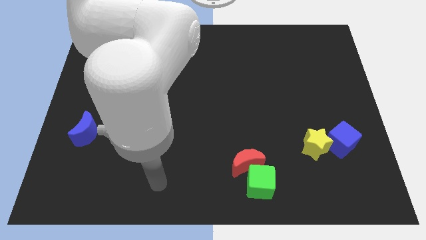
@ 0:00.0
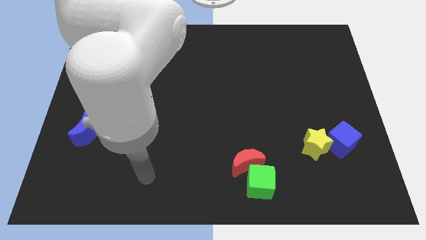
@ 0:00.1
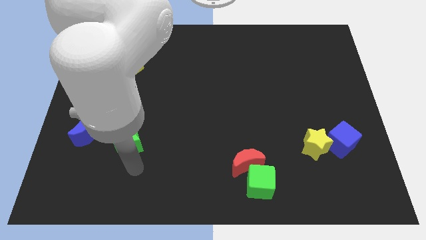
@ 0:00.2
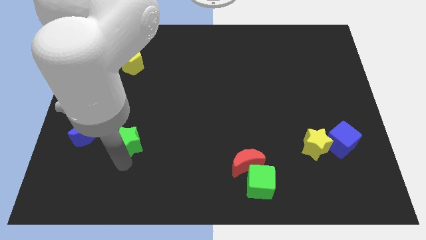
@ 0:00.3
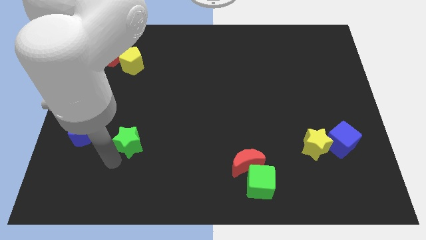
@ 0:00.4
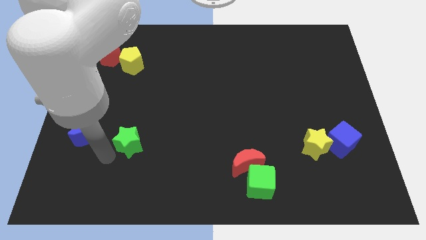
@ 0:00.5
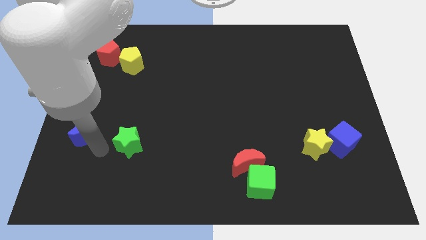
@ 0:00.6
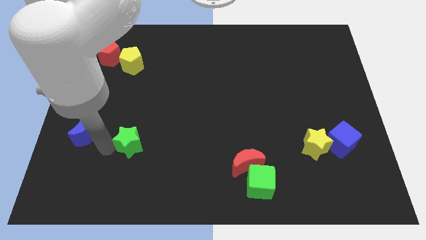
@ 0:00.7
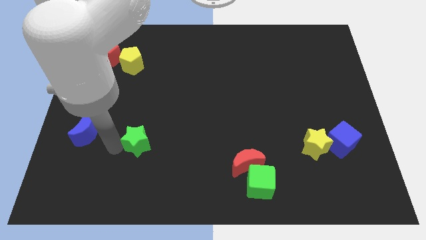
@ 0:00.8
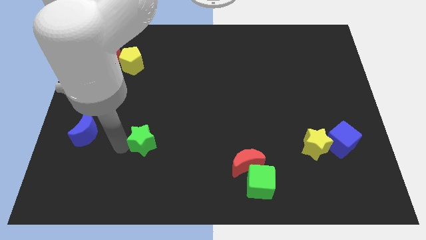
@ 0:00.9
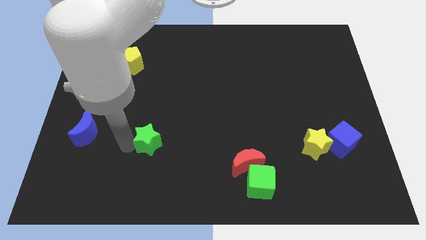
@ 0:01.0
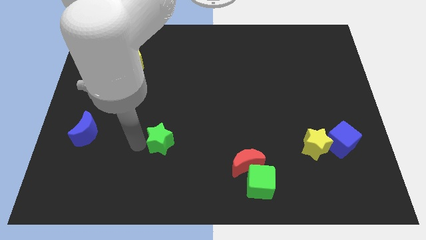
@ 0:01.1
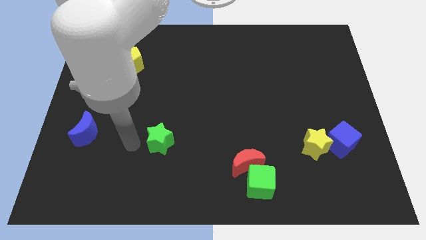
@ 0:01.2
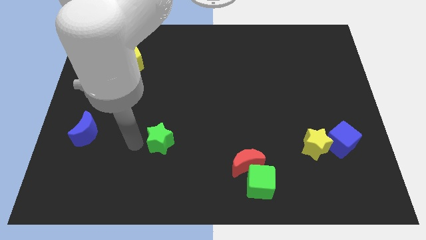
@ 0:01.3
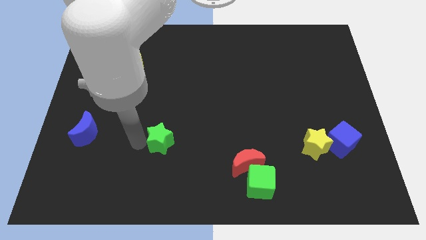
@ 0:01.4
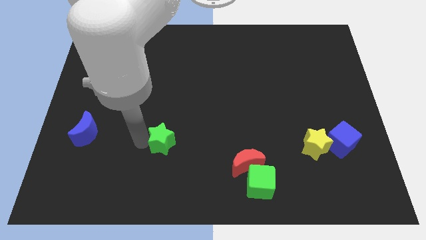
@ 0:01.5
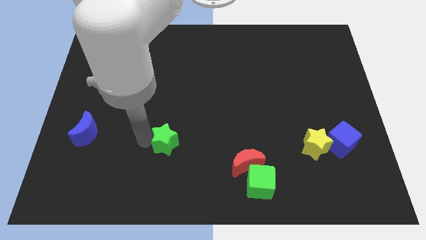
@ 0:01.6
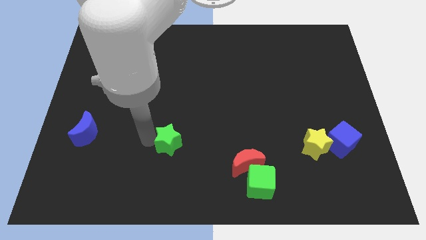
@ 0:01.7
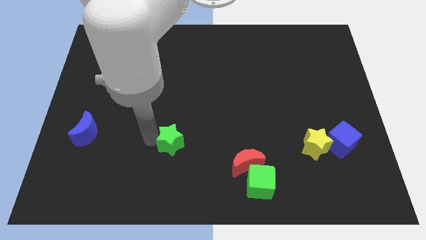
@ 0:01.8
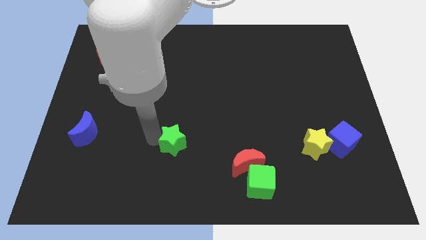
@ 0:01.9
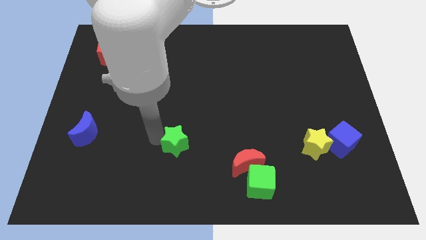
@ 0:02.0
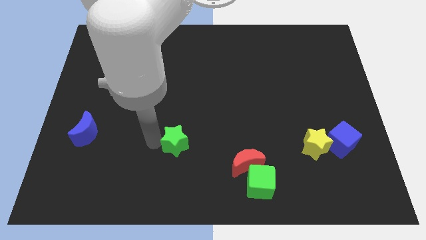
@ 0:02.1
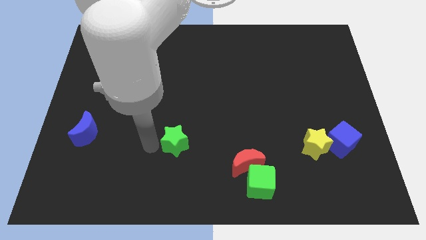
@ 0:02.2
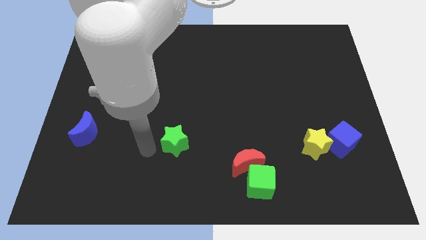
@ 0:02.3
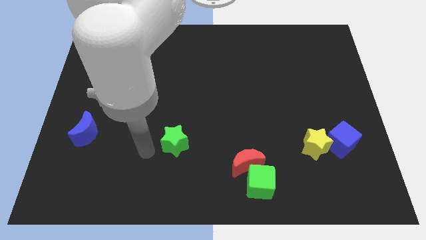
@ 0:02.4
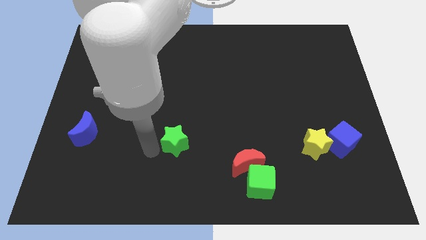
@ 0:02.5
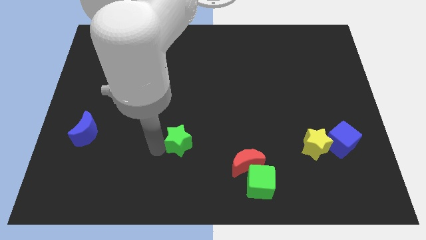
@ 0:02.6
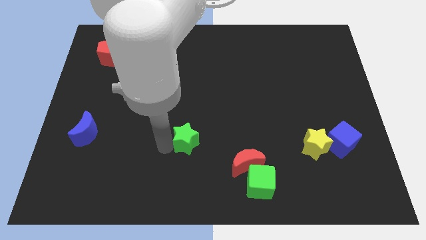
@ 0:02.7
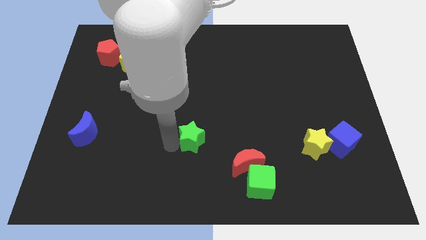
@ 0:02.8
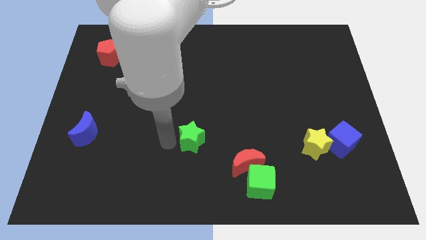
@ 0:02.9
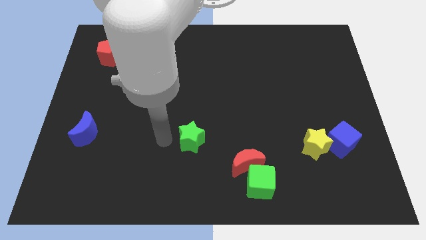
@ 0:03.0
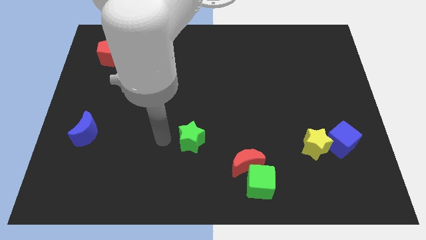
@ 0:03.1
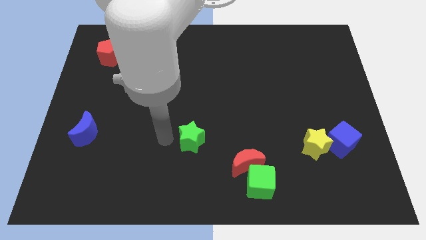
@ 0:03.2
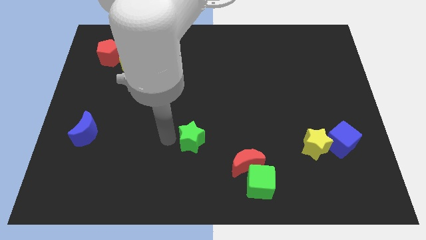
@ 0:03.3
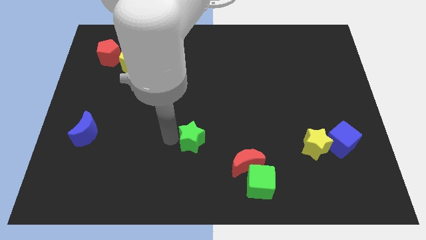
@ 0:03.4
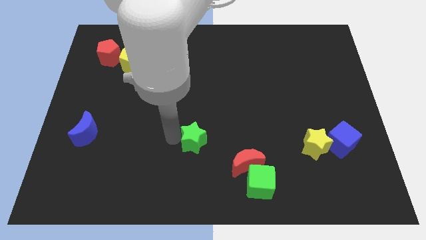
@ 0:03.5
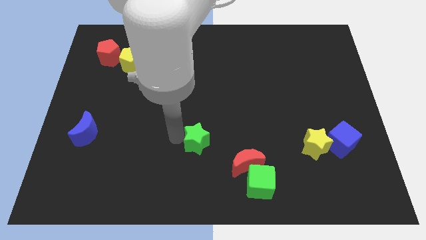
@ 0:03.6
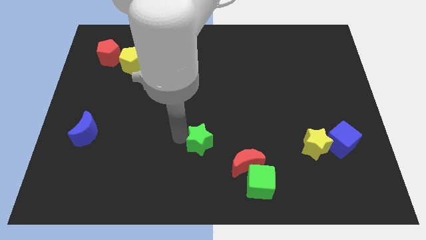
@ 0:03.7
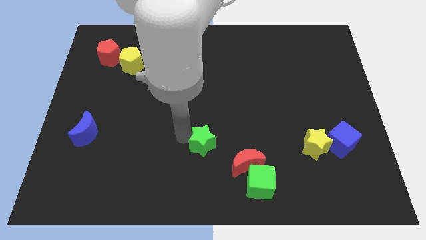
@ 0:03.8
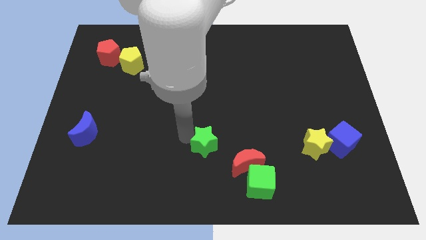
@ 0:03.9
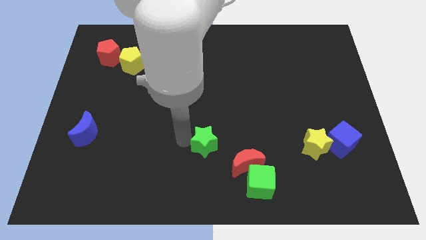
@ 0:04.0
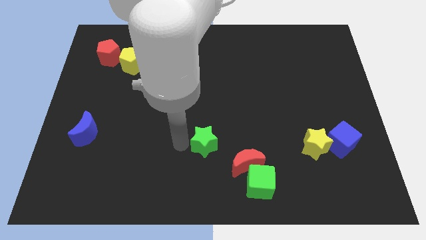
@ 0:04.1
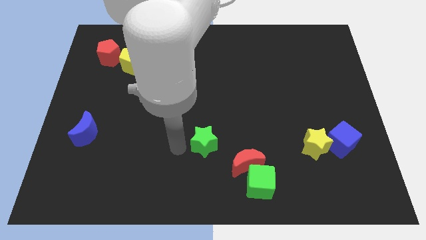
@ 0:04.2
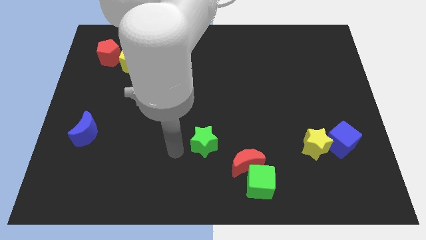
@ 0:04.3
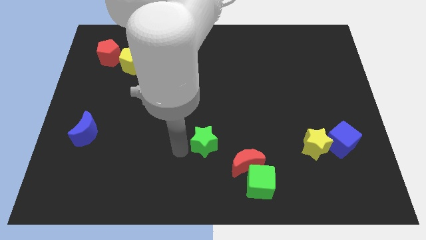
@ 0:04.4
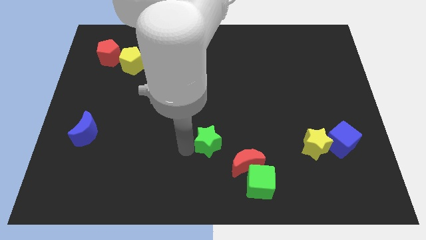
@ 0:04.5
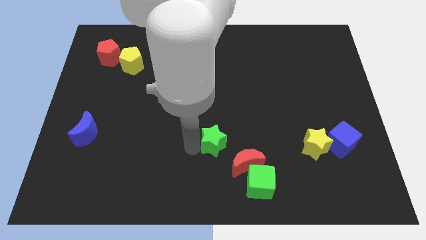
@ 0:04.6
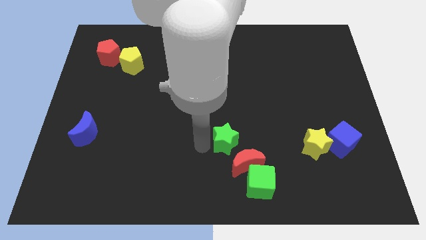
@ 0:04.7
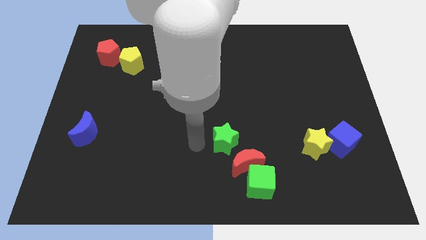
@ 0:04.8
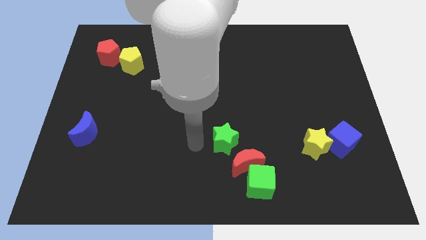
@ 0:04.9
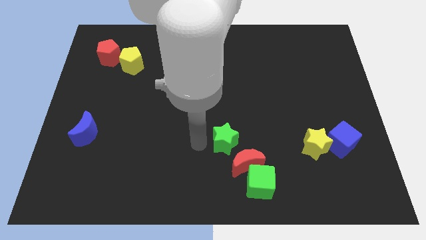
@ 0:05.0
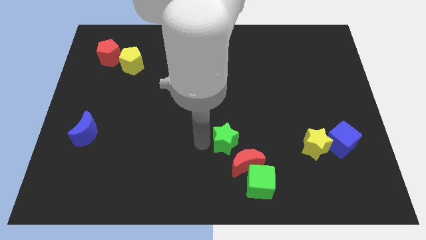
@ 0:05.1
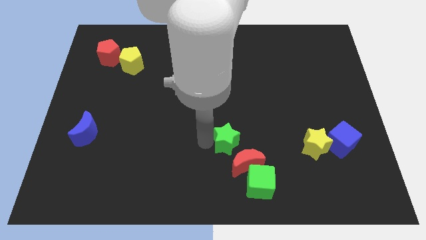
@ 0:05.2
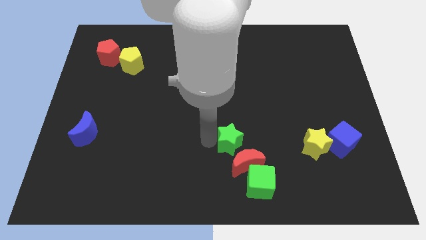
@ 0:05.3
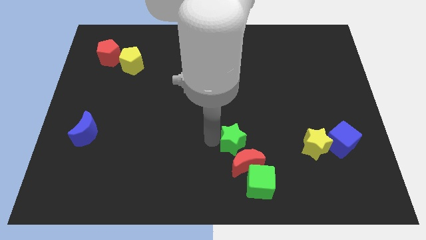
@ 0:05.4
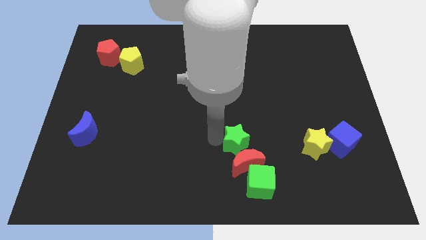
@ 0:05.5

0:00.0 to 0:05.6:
slide the green star to the top of the green cube

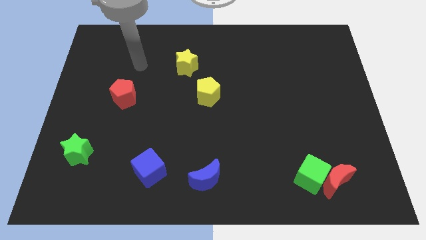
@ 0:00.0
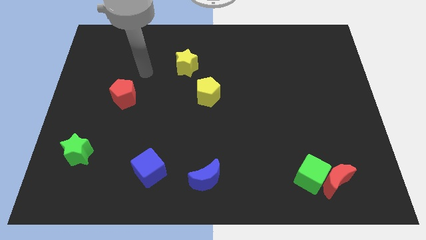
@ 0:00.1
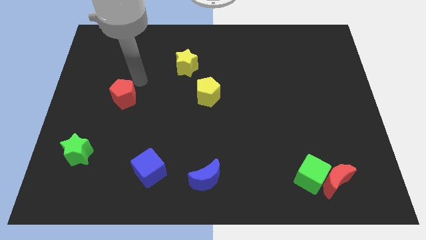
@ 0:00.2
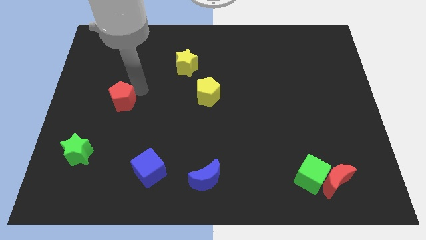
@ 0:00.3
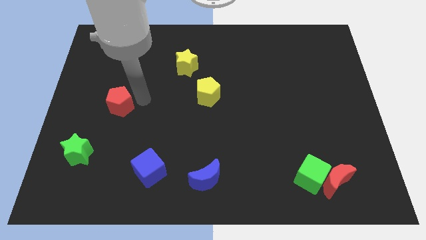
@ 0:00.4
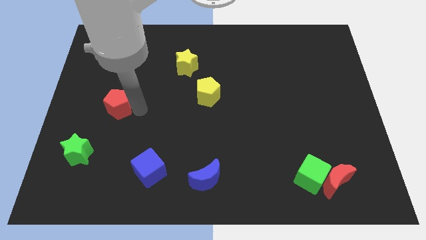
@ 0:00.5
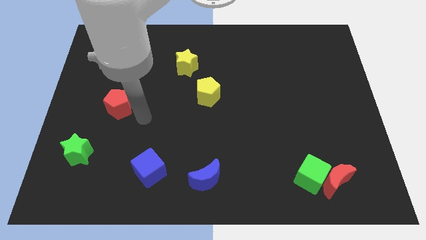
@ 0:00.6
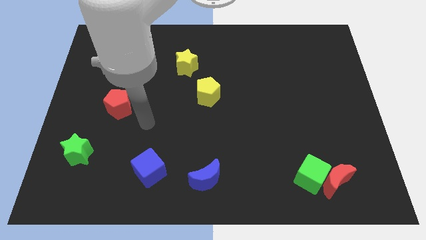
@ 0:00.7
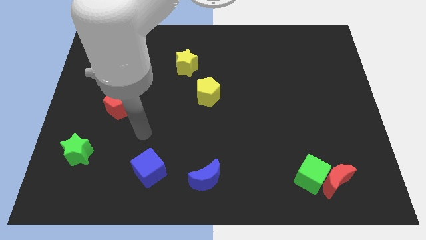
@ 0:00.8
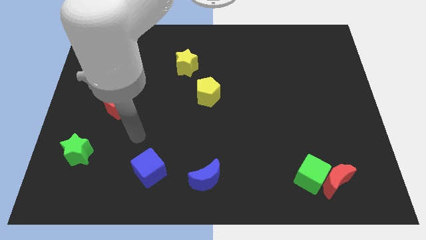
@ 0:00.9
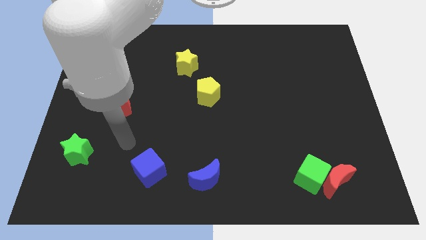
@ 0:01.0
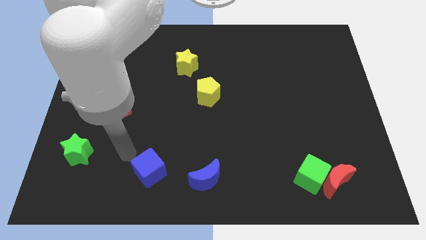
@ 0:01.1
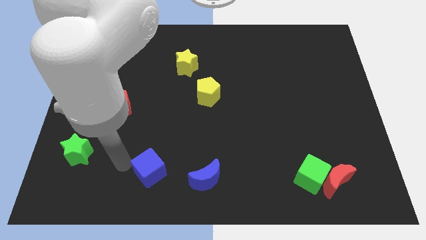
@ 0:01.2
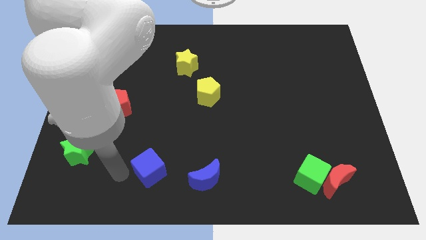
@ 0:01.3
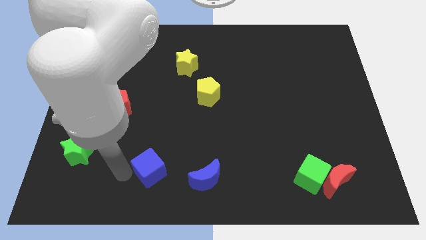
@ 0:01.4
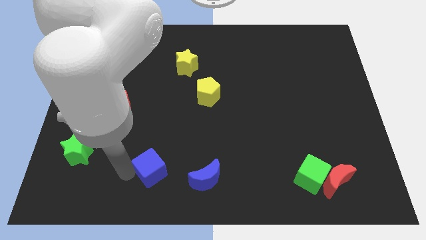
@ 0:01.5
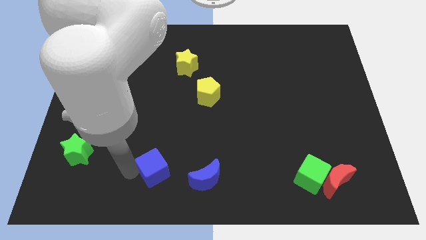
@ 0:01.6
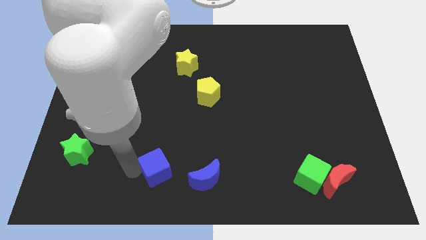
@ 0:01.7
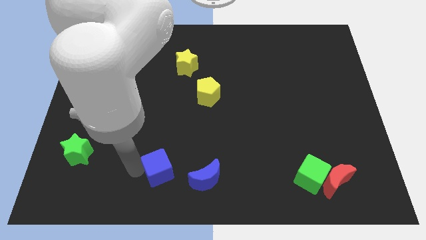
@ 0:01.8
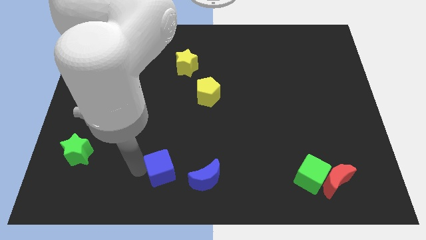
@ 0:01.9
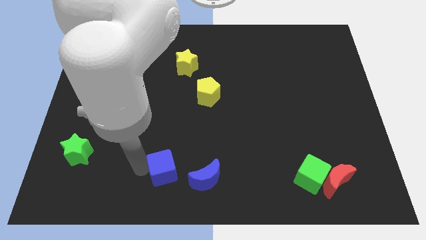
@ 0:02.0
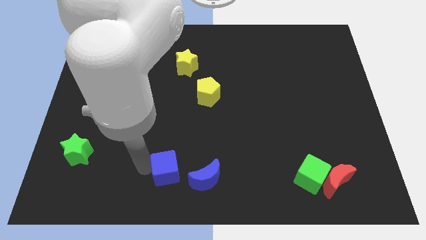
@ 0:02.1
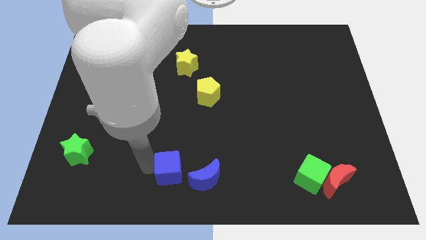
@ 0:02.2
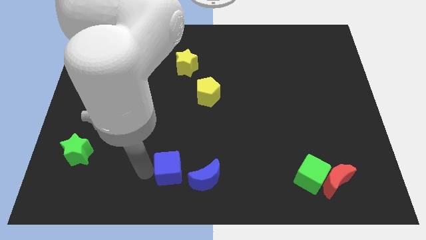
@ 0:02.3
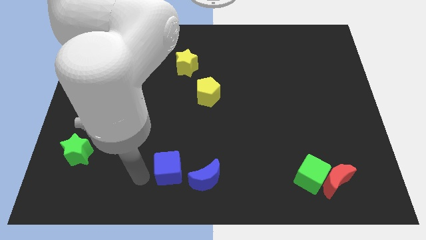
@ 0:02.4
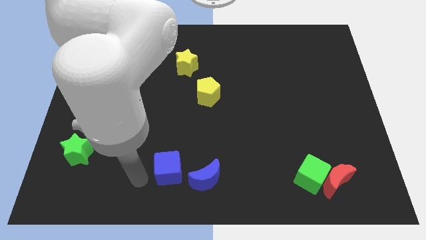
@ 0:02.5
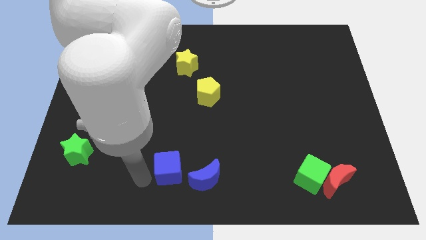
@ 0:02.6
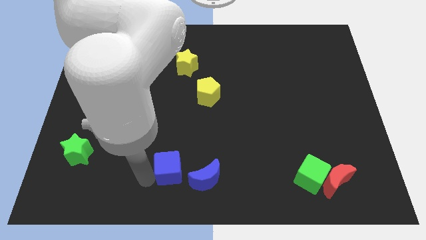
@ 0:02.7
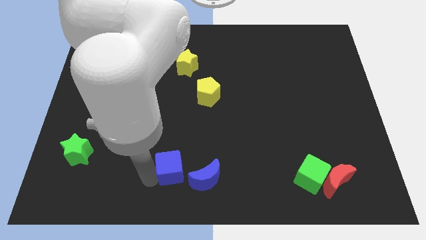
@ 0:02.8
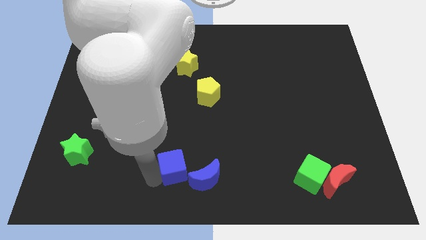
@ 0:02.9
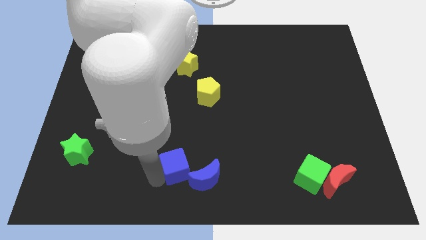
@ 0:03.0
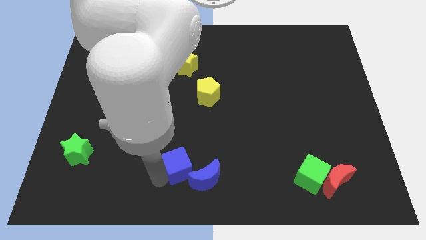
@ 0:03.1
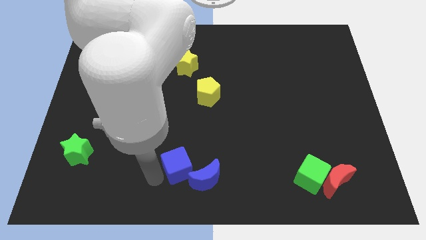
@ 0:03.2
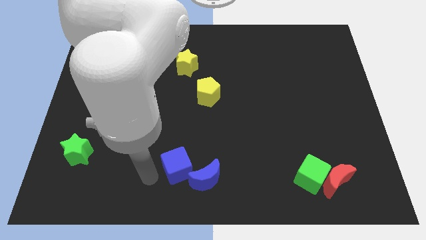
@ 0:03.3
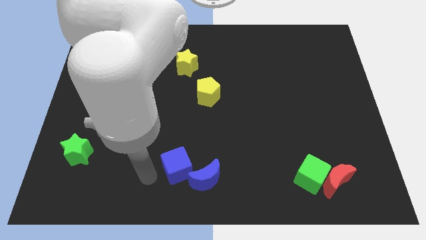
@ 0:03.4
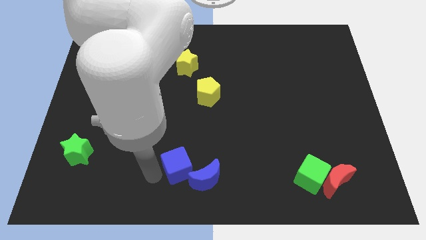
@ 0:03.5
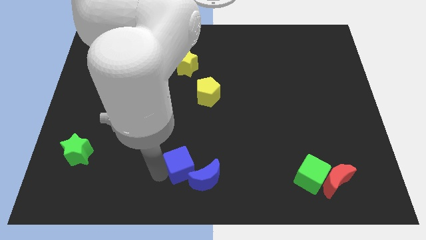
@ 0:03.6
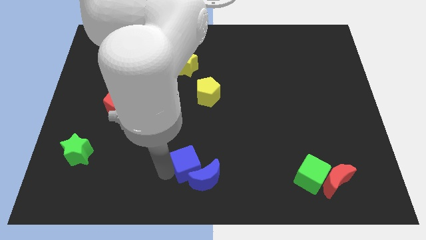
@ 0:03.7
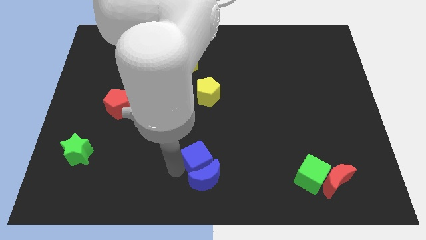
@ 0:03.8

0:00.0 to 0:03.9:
push the blue cube diagonally up and to the right of the blue moon
